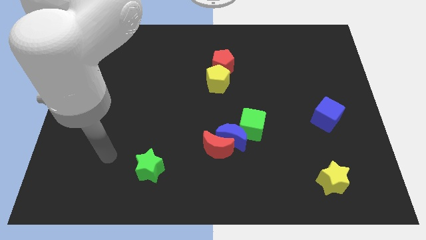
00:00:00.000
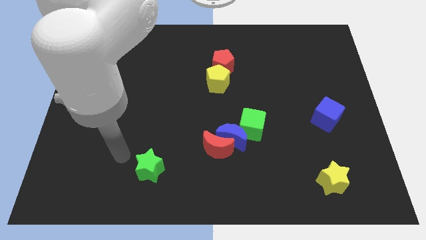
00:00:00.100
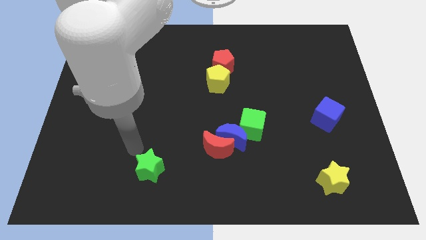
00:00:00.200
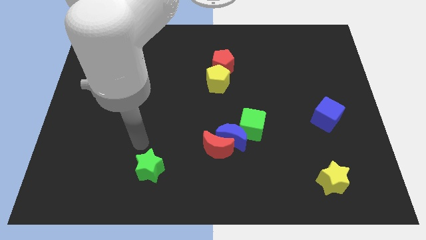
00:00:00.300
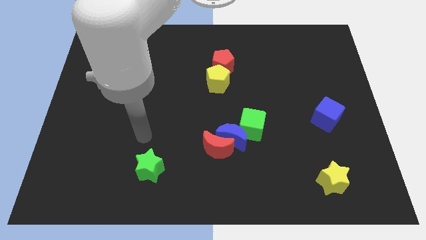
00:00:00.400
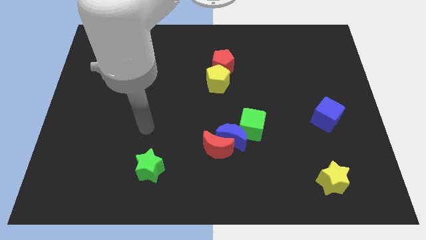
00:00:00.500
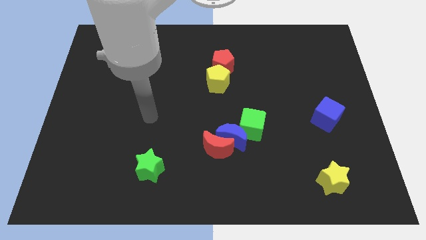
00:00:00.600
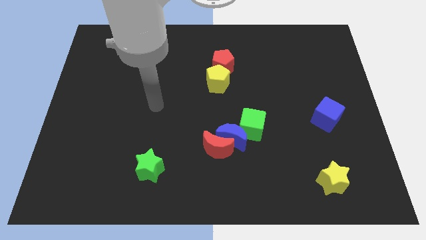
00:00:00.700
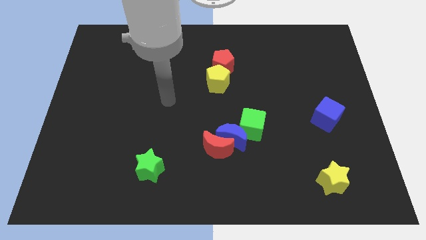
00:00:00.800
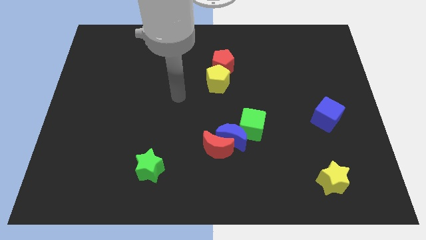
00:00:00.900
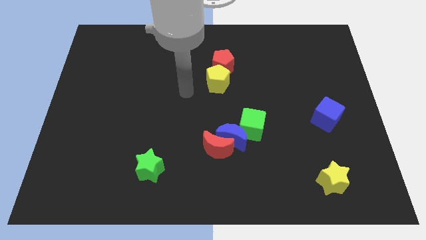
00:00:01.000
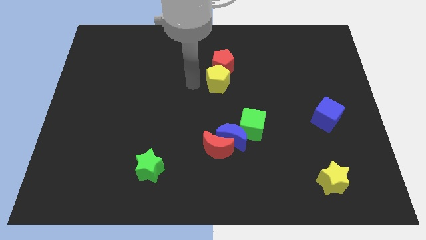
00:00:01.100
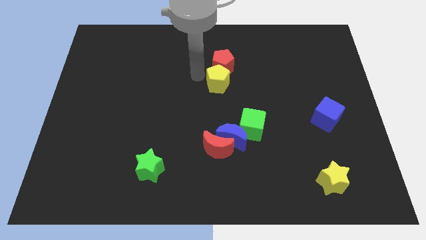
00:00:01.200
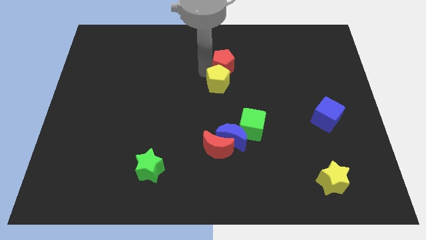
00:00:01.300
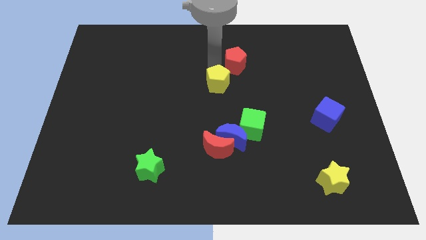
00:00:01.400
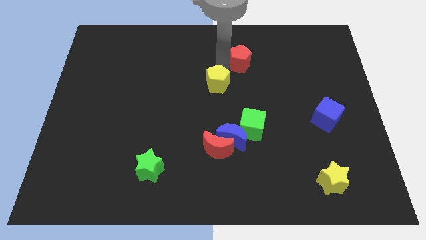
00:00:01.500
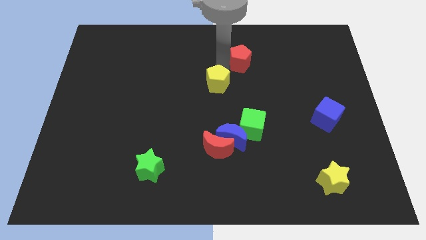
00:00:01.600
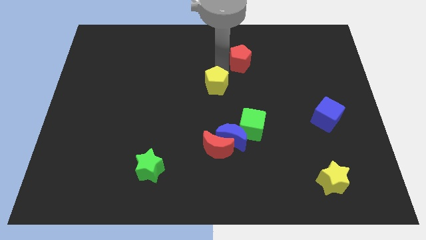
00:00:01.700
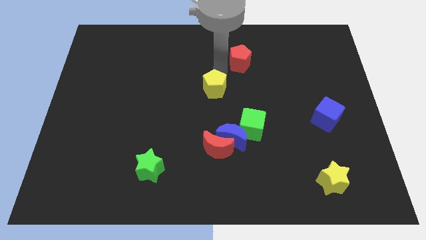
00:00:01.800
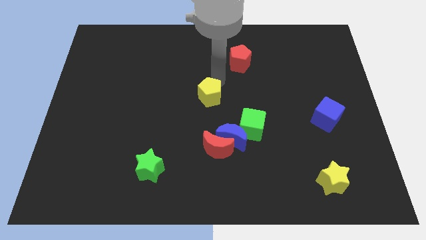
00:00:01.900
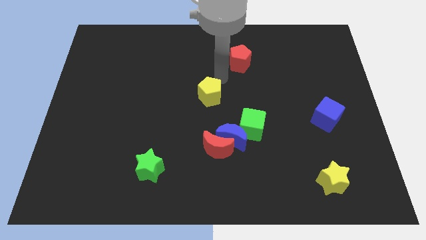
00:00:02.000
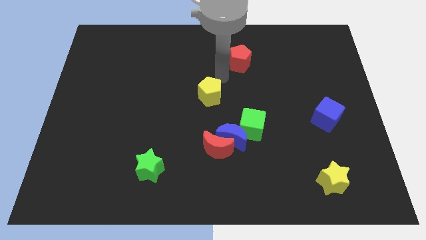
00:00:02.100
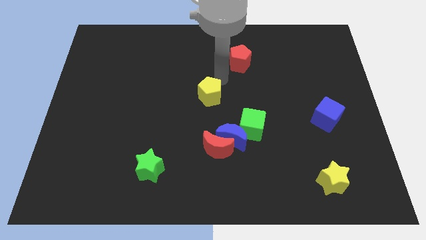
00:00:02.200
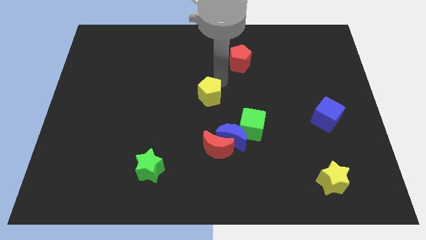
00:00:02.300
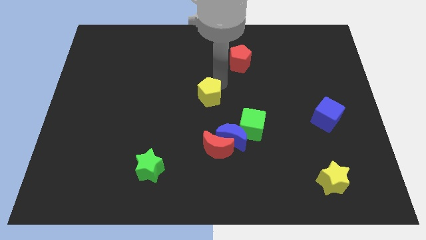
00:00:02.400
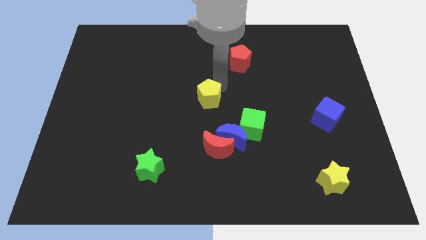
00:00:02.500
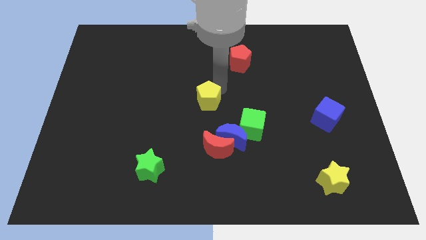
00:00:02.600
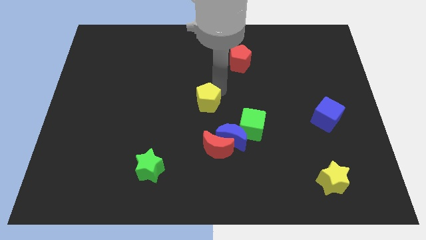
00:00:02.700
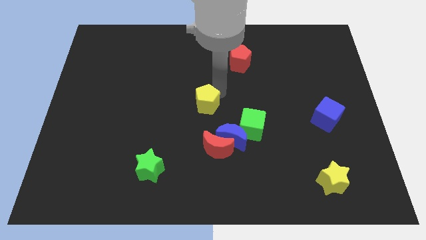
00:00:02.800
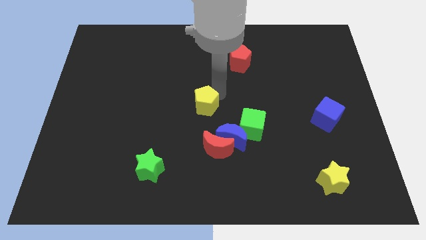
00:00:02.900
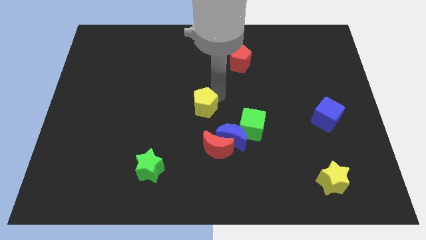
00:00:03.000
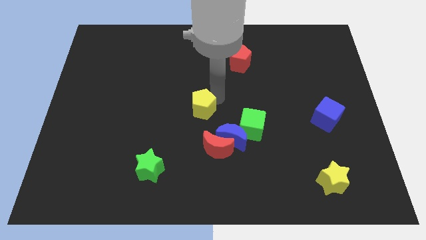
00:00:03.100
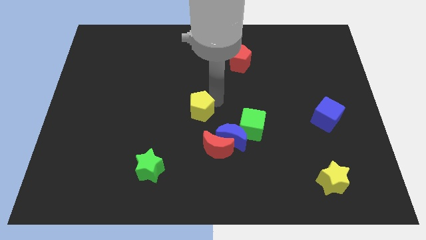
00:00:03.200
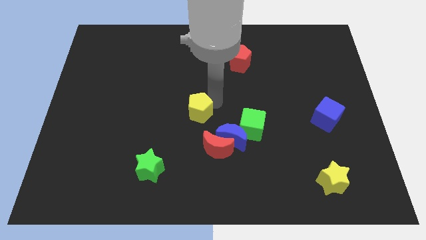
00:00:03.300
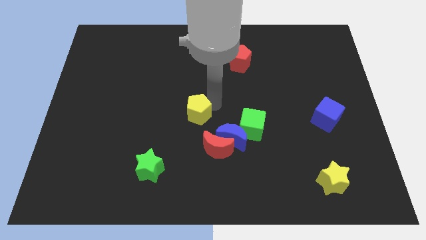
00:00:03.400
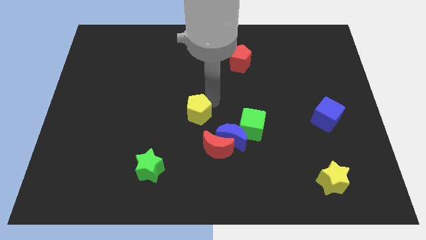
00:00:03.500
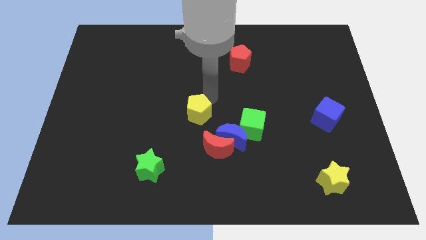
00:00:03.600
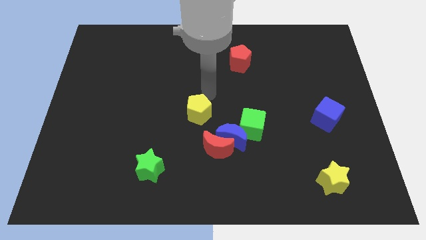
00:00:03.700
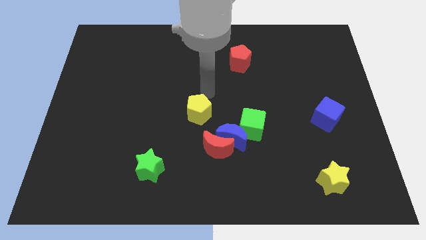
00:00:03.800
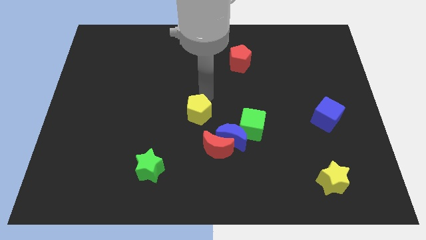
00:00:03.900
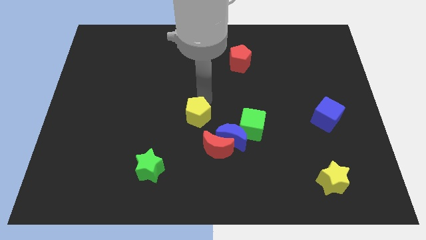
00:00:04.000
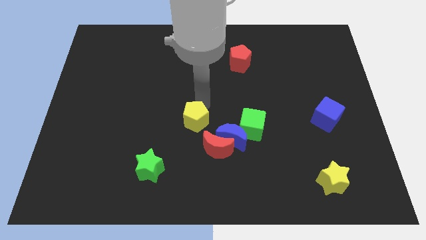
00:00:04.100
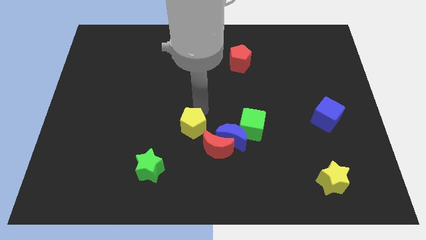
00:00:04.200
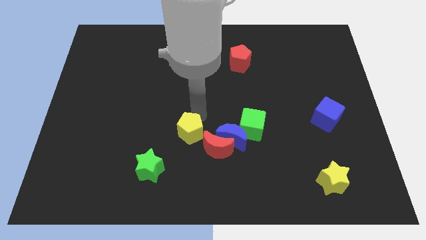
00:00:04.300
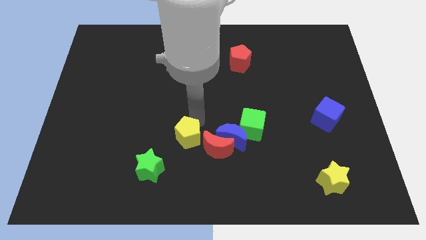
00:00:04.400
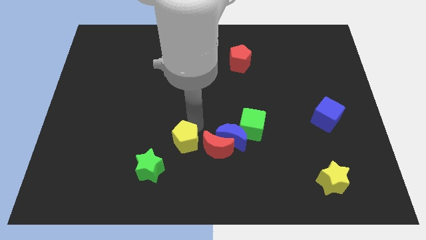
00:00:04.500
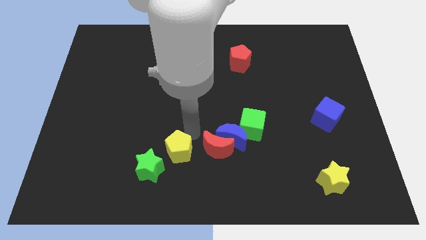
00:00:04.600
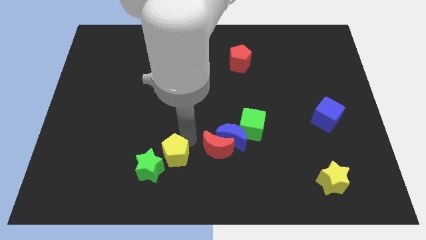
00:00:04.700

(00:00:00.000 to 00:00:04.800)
put the yellow pentagon close to the green star

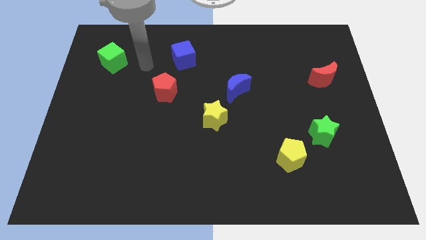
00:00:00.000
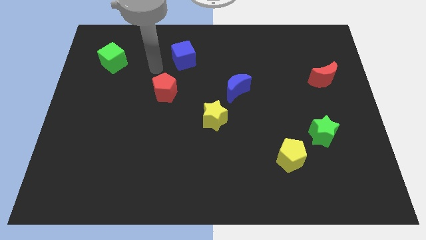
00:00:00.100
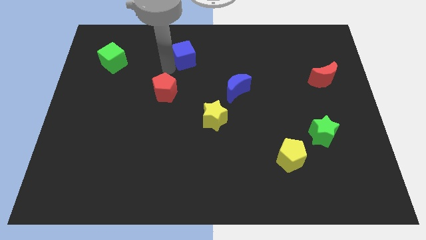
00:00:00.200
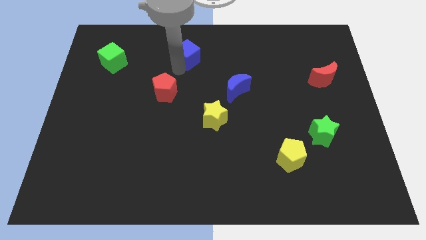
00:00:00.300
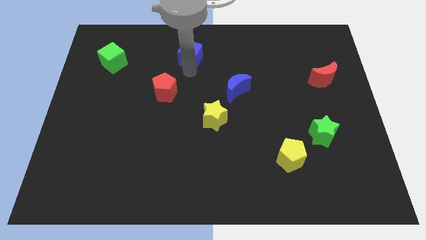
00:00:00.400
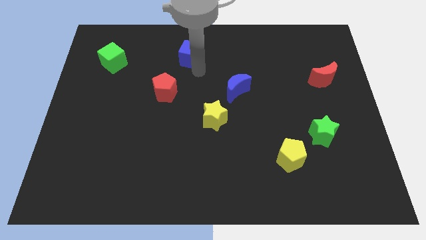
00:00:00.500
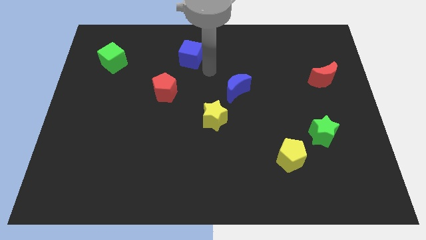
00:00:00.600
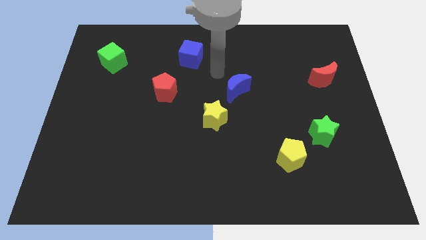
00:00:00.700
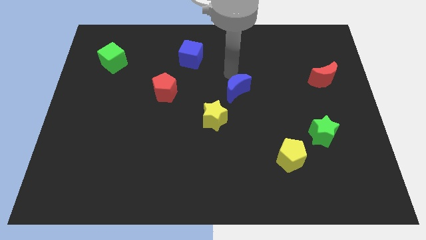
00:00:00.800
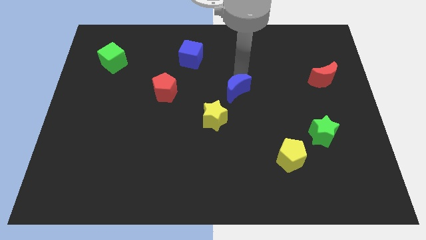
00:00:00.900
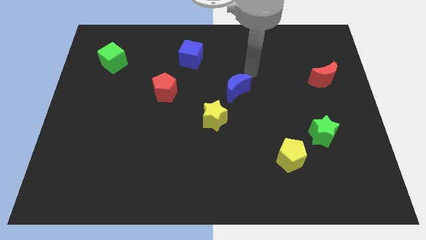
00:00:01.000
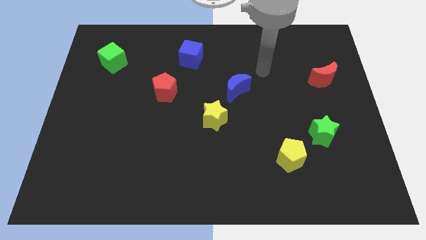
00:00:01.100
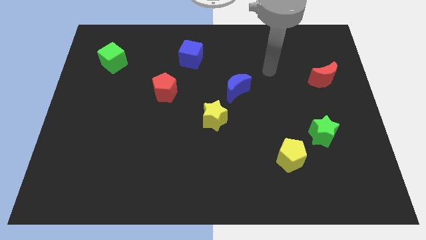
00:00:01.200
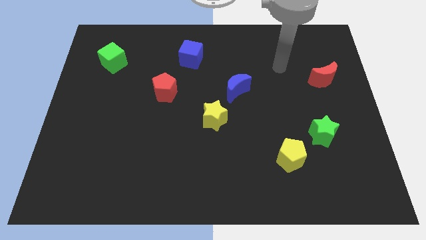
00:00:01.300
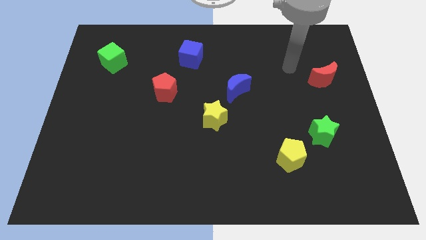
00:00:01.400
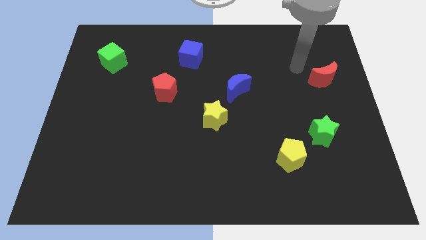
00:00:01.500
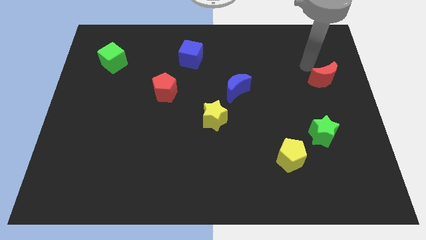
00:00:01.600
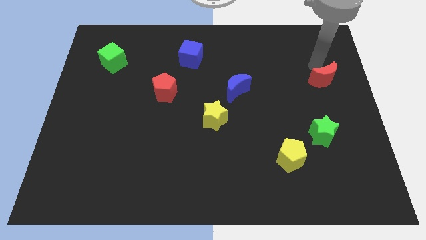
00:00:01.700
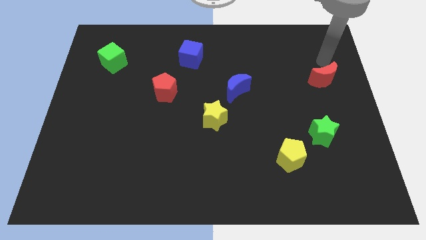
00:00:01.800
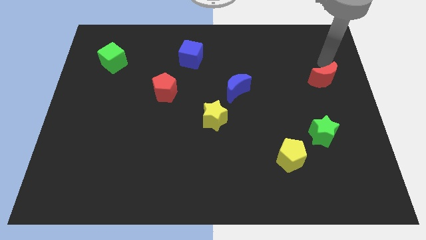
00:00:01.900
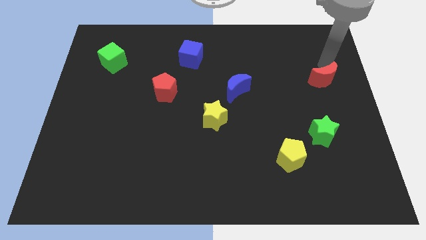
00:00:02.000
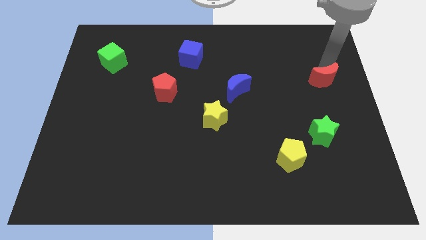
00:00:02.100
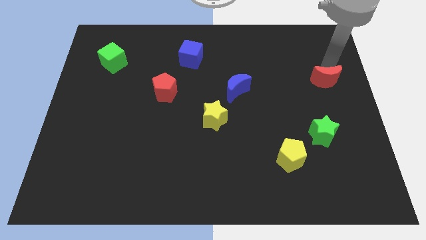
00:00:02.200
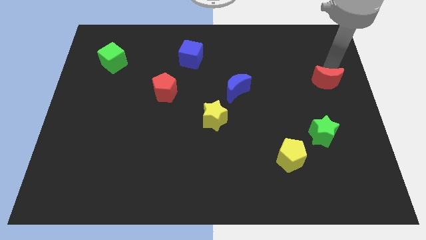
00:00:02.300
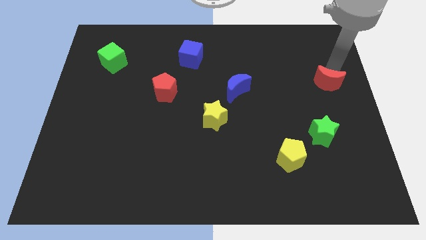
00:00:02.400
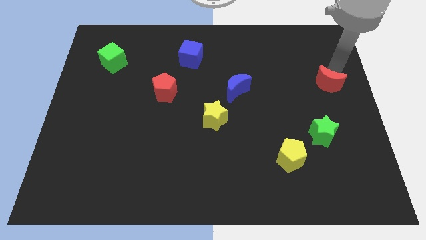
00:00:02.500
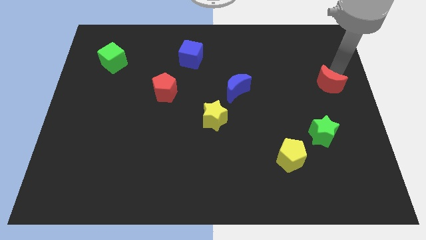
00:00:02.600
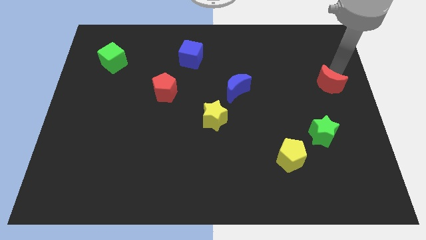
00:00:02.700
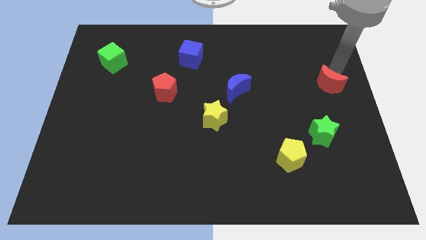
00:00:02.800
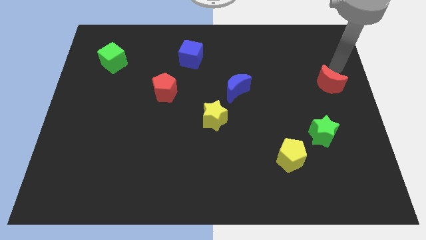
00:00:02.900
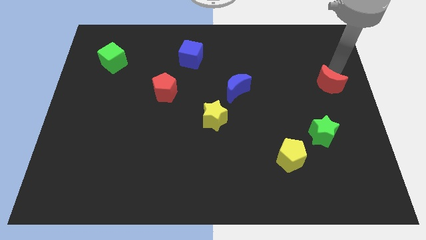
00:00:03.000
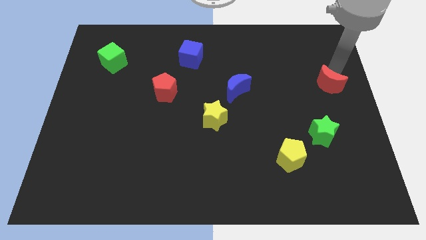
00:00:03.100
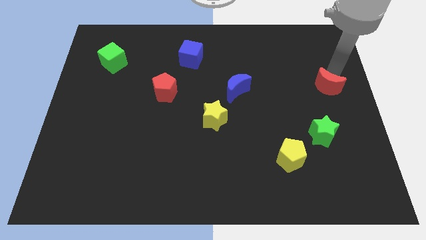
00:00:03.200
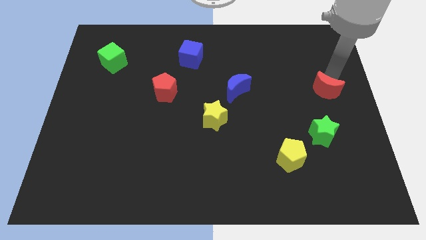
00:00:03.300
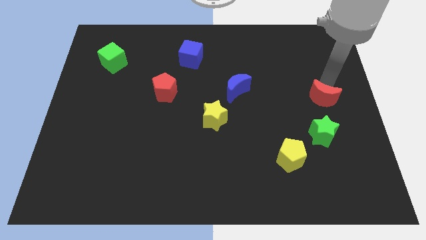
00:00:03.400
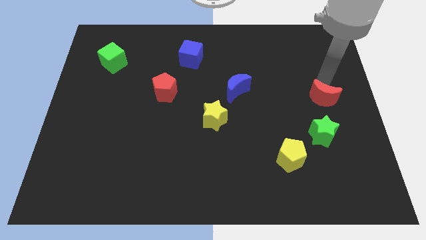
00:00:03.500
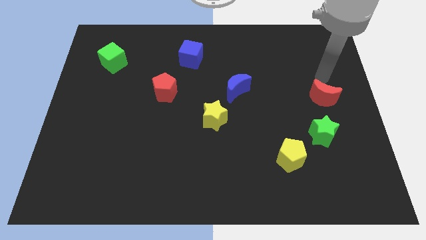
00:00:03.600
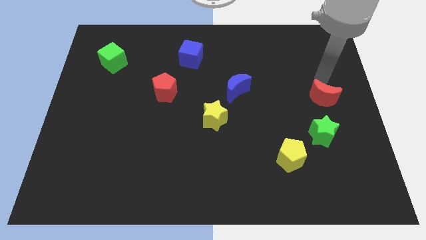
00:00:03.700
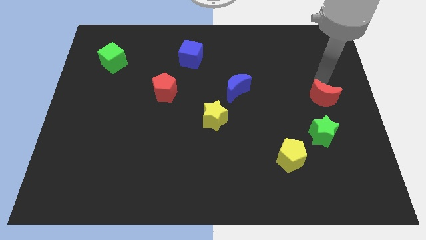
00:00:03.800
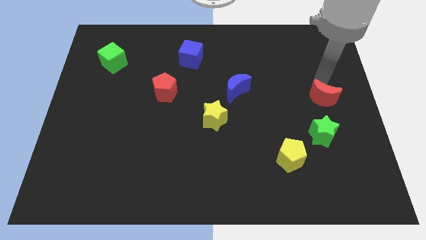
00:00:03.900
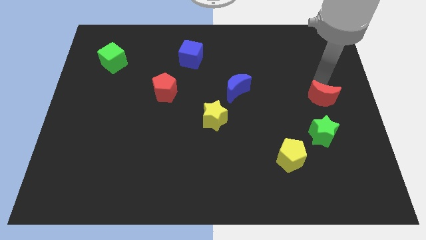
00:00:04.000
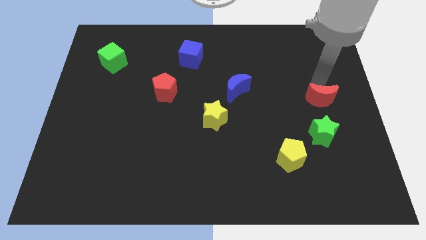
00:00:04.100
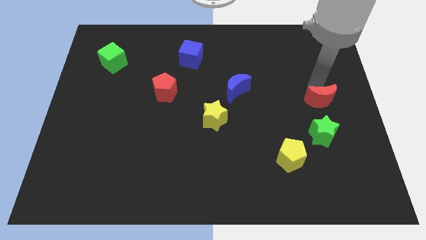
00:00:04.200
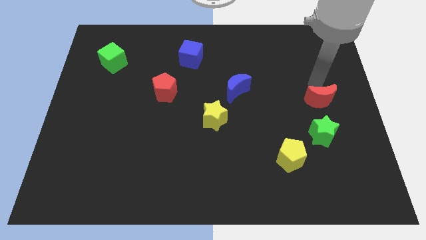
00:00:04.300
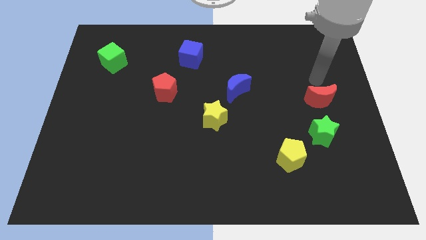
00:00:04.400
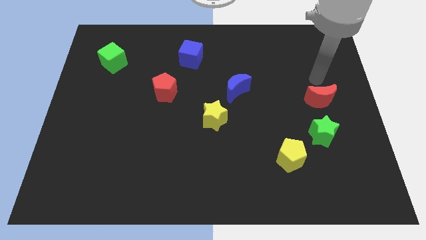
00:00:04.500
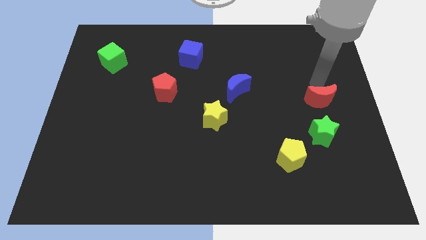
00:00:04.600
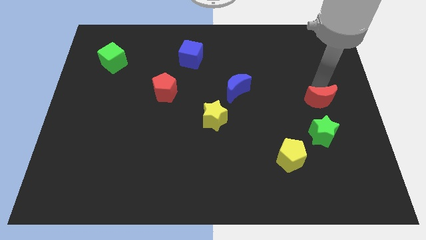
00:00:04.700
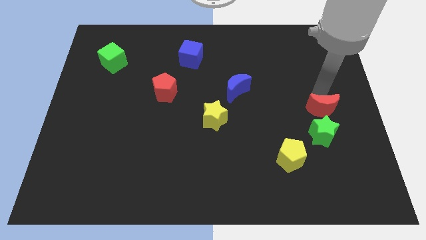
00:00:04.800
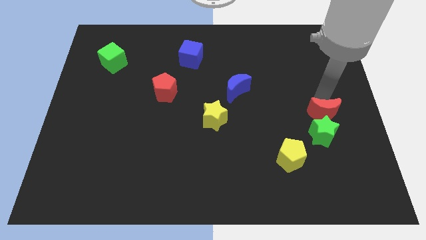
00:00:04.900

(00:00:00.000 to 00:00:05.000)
push the red moon close to the green star
